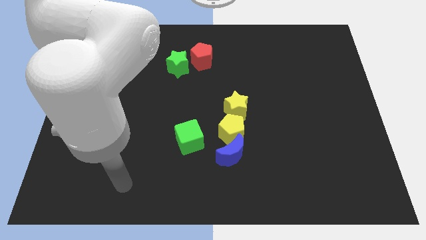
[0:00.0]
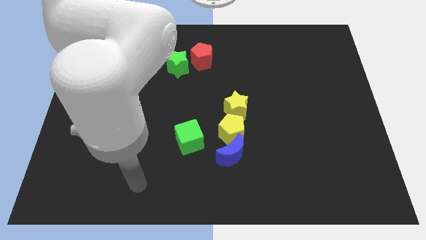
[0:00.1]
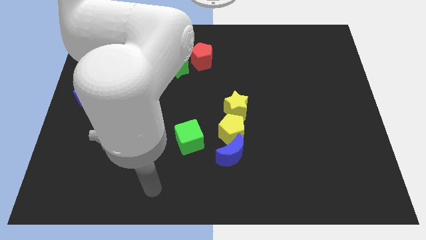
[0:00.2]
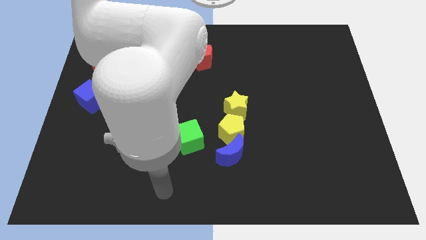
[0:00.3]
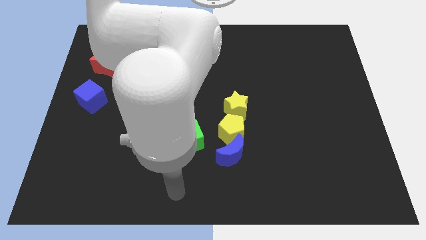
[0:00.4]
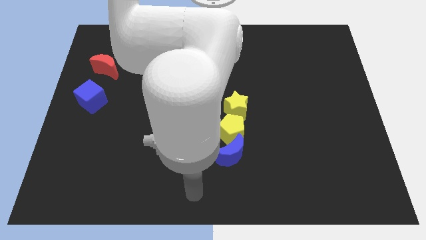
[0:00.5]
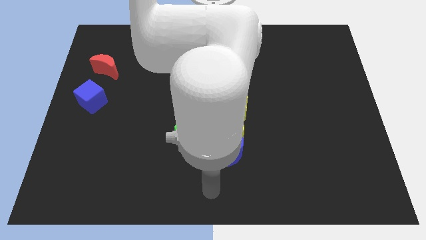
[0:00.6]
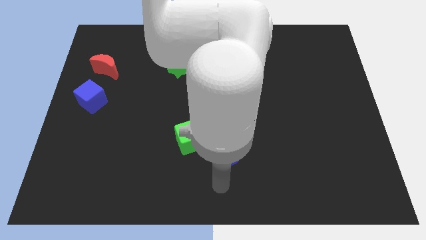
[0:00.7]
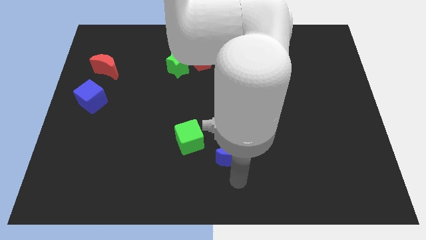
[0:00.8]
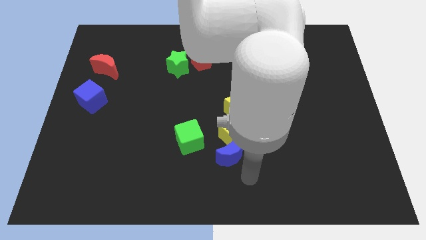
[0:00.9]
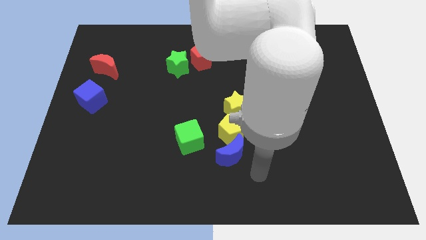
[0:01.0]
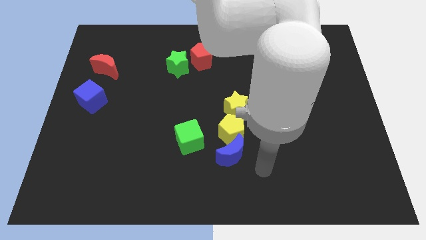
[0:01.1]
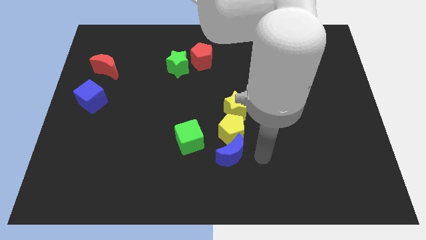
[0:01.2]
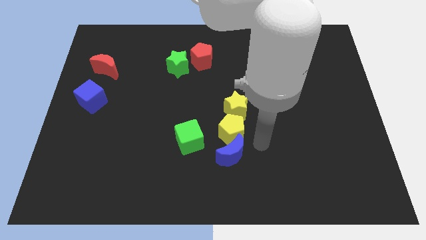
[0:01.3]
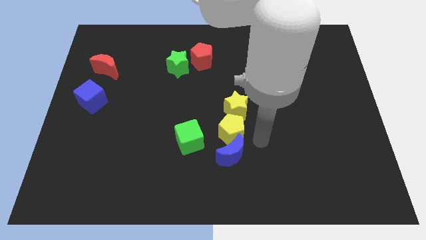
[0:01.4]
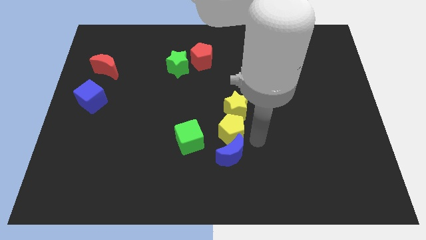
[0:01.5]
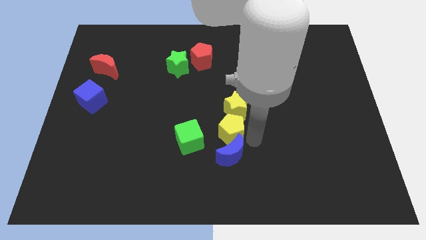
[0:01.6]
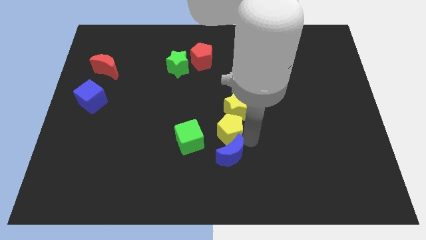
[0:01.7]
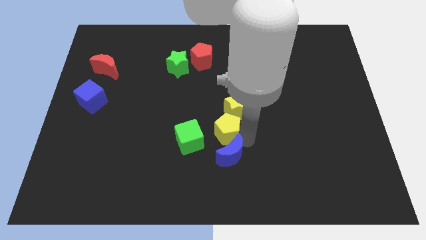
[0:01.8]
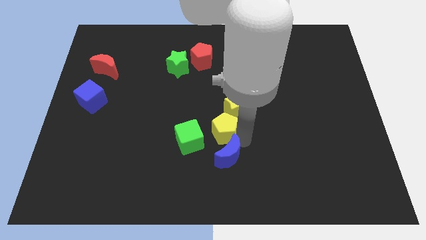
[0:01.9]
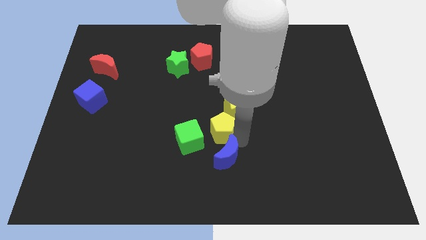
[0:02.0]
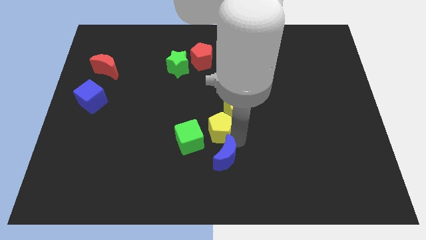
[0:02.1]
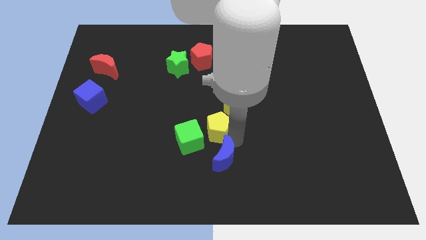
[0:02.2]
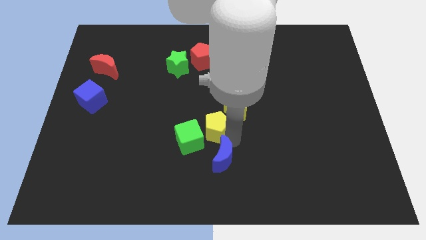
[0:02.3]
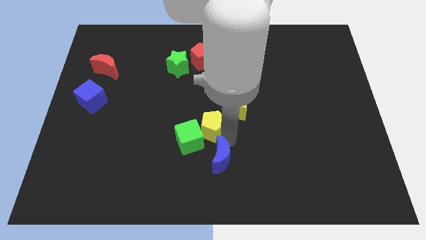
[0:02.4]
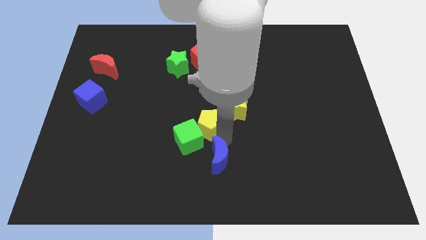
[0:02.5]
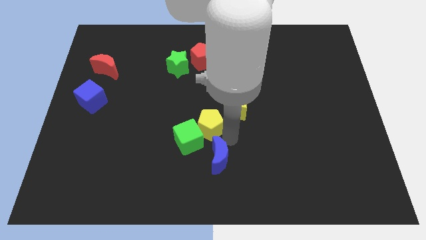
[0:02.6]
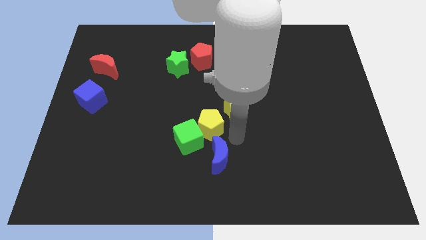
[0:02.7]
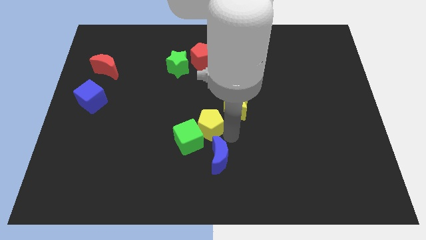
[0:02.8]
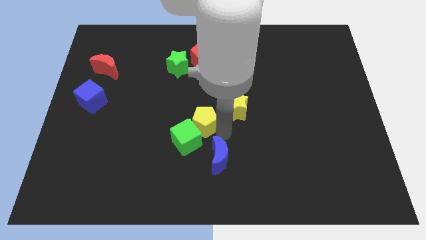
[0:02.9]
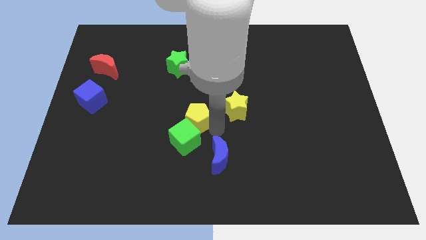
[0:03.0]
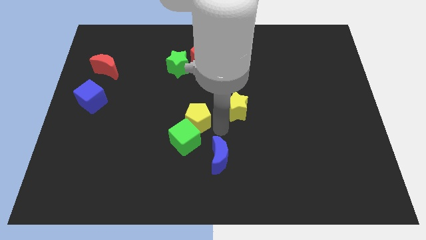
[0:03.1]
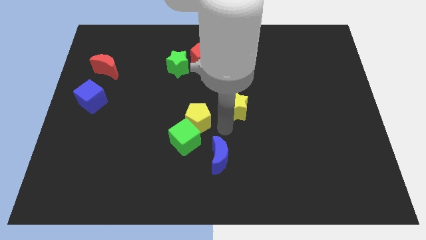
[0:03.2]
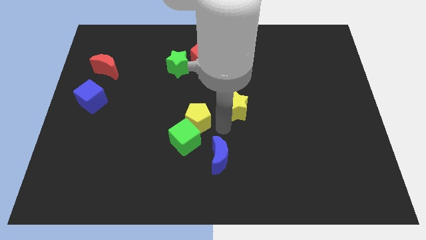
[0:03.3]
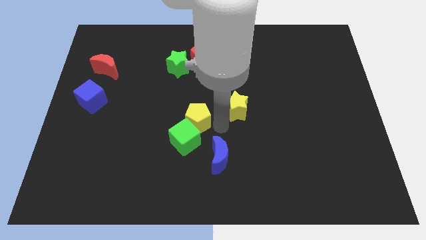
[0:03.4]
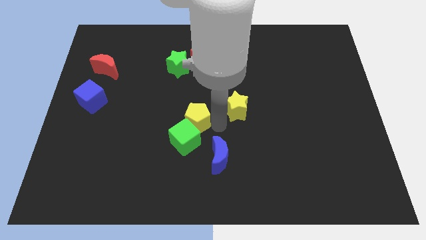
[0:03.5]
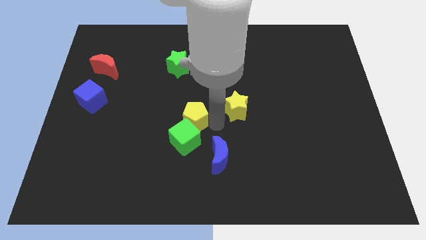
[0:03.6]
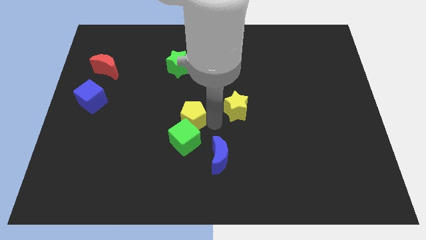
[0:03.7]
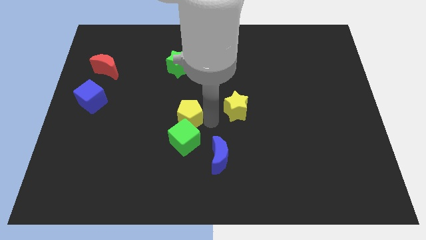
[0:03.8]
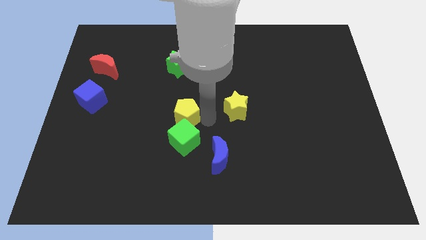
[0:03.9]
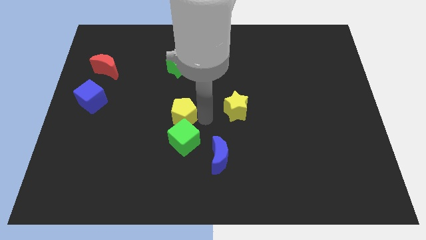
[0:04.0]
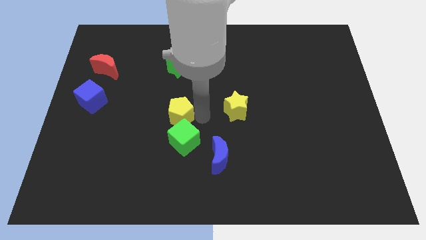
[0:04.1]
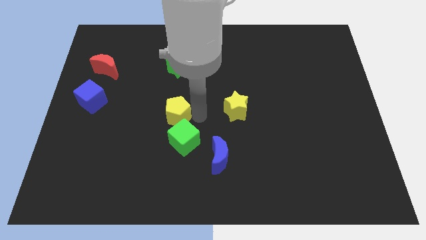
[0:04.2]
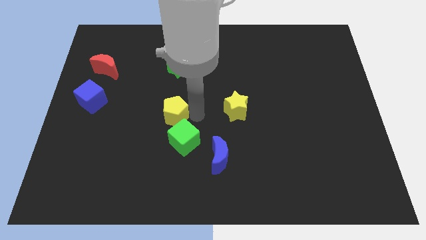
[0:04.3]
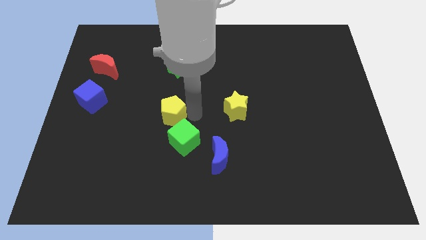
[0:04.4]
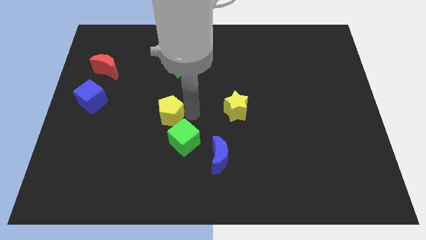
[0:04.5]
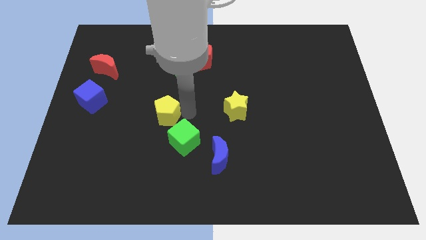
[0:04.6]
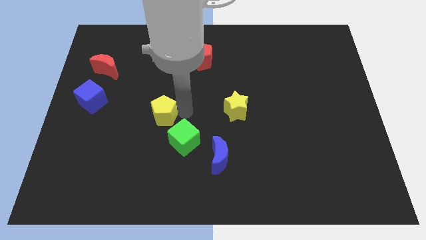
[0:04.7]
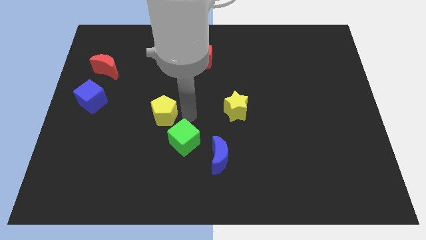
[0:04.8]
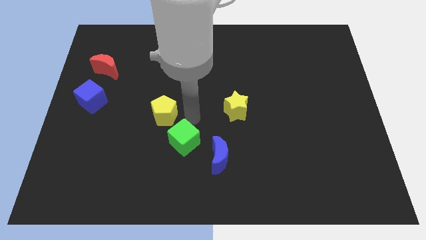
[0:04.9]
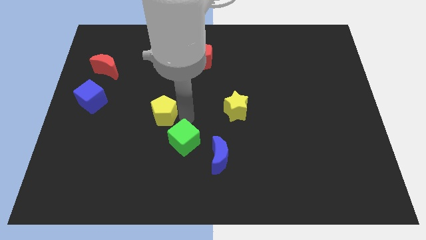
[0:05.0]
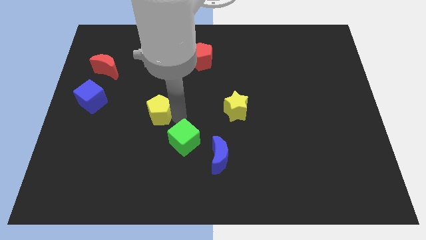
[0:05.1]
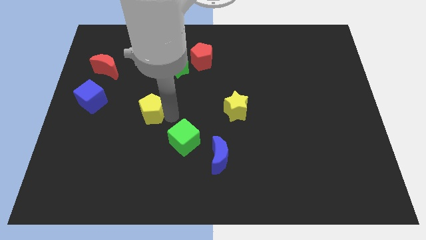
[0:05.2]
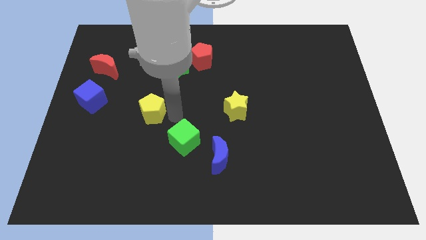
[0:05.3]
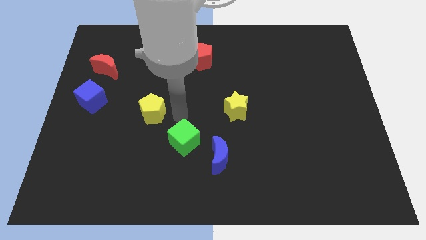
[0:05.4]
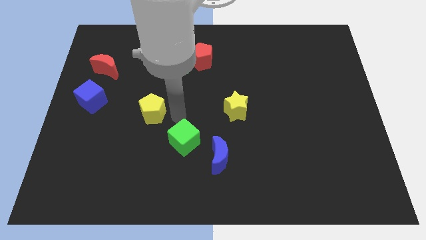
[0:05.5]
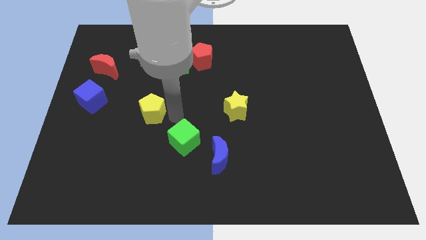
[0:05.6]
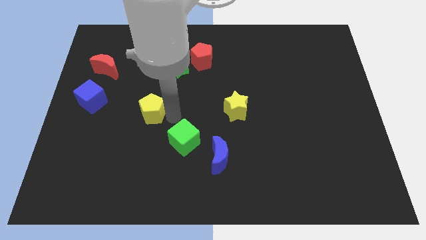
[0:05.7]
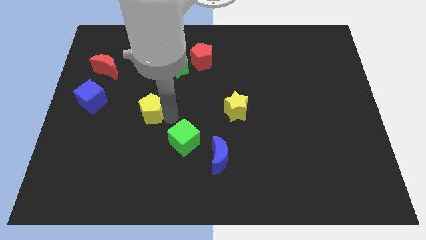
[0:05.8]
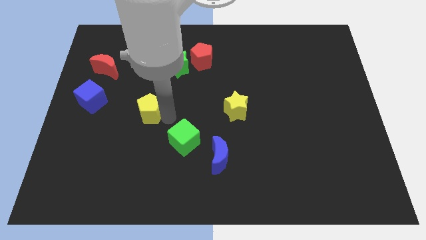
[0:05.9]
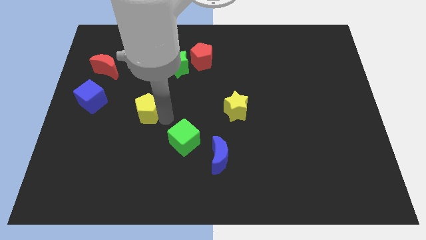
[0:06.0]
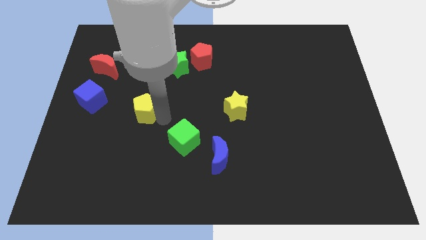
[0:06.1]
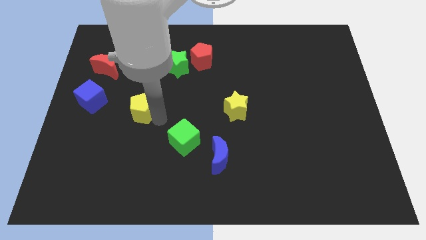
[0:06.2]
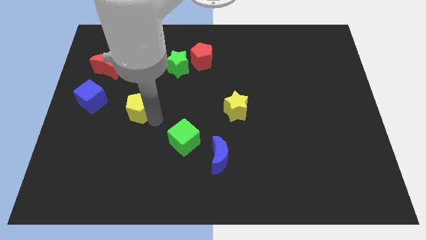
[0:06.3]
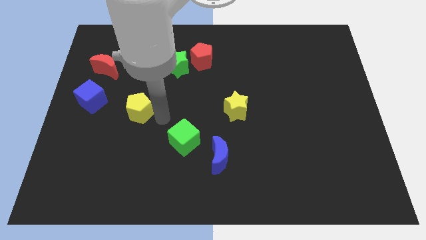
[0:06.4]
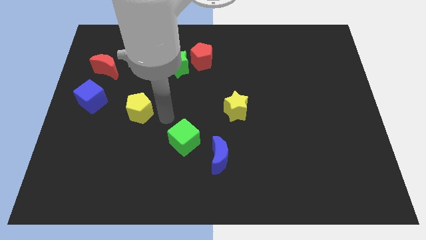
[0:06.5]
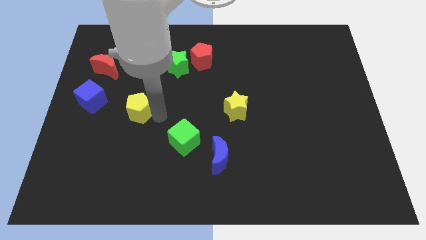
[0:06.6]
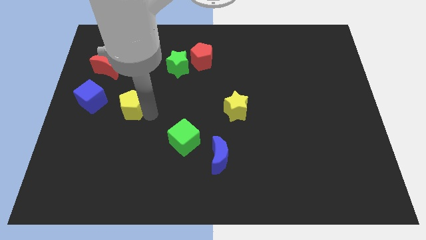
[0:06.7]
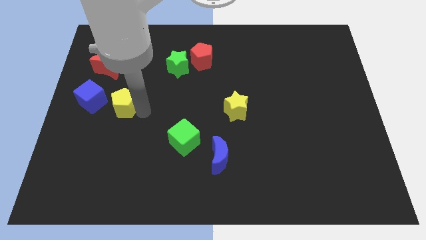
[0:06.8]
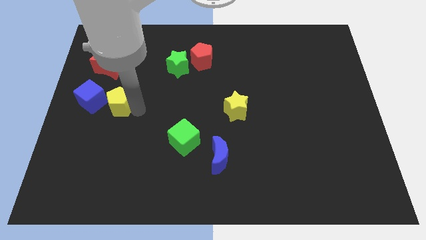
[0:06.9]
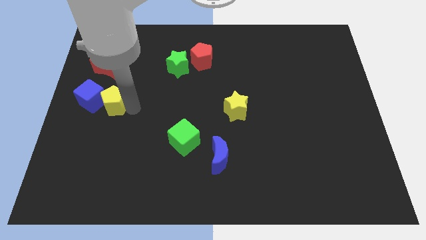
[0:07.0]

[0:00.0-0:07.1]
slide the yellow pentagon next to the blue cube

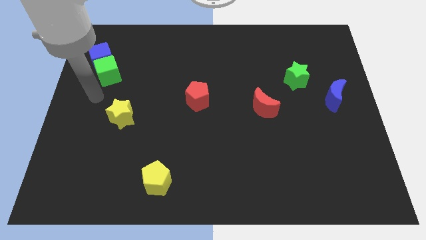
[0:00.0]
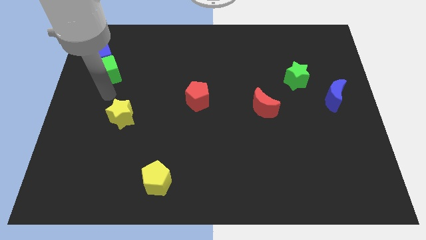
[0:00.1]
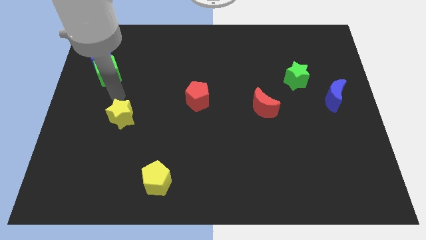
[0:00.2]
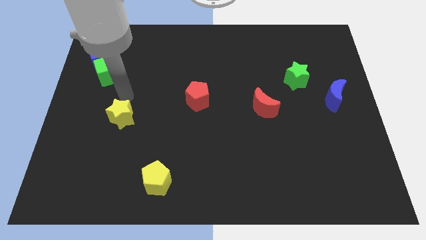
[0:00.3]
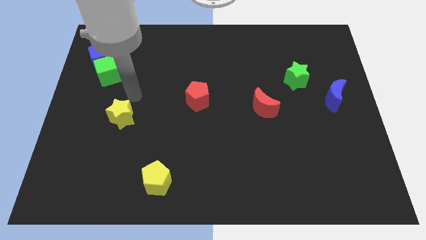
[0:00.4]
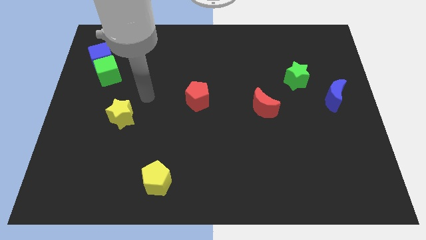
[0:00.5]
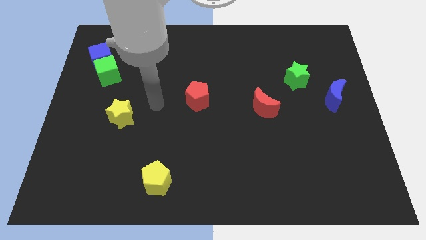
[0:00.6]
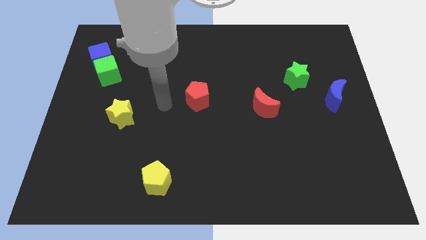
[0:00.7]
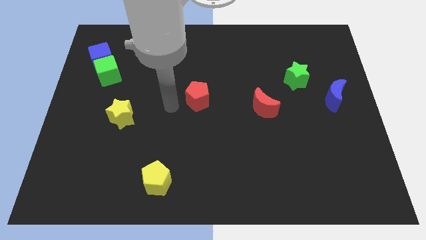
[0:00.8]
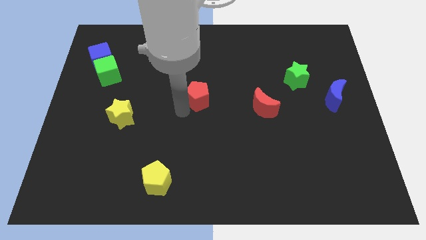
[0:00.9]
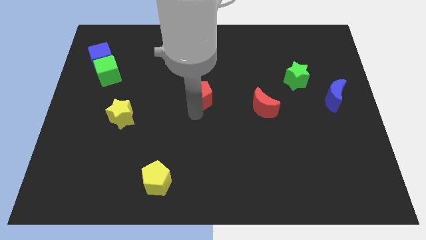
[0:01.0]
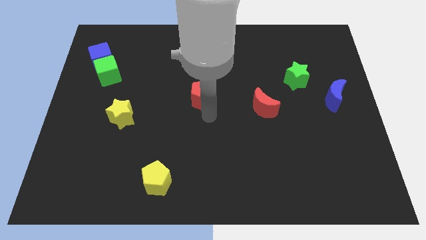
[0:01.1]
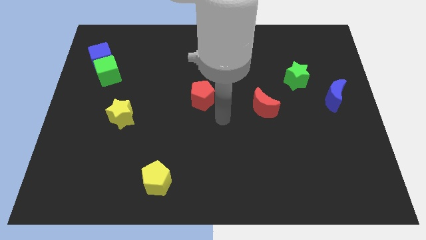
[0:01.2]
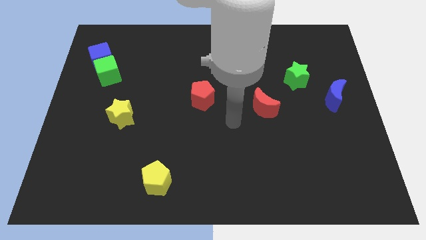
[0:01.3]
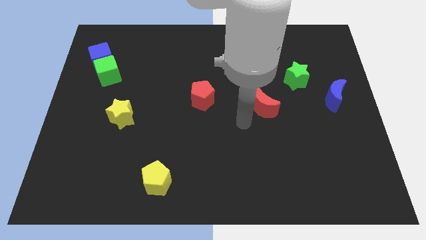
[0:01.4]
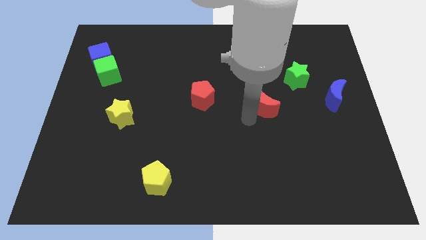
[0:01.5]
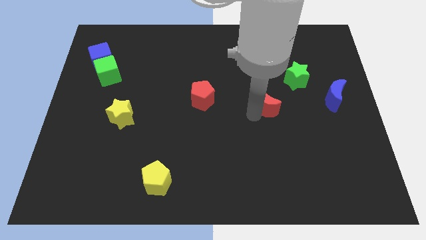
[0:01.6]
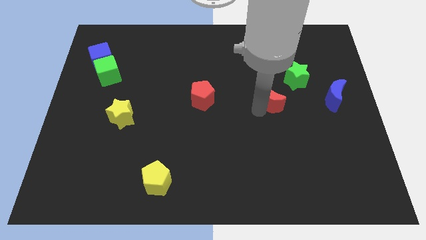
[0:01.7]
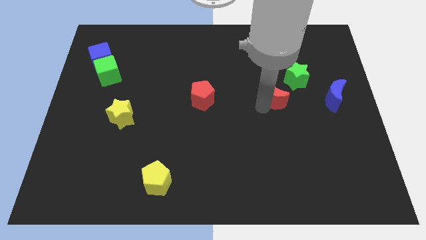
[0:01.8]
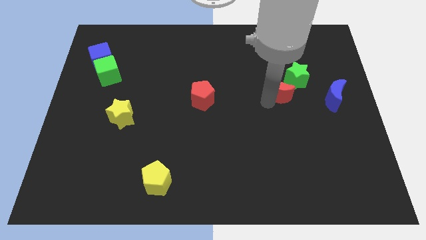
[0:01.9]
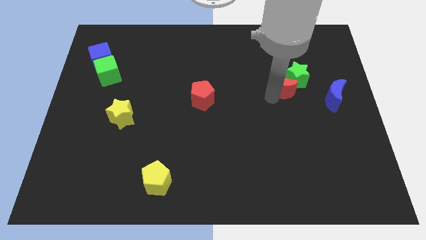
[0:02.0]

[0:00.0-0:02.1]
push the red moon to the green star
